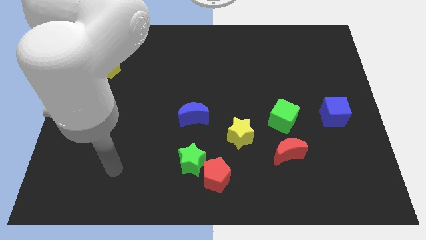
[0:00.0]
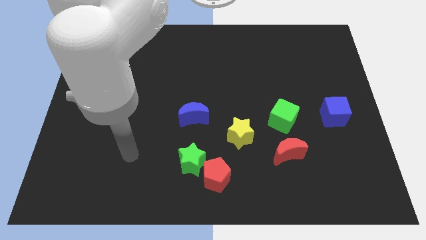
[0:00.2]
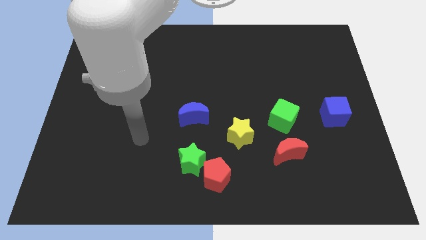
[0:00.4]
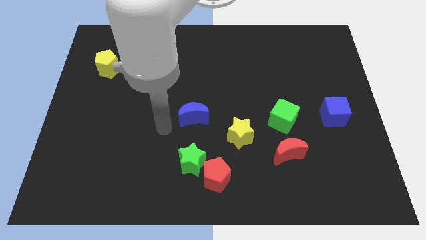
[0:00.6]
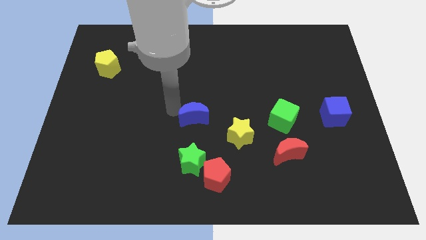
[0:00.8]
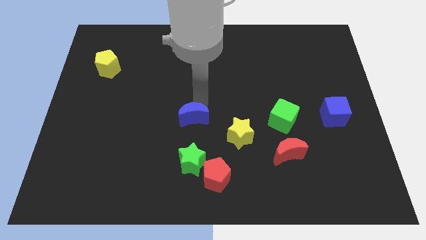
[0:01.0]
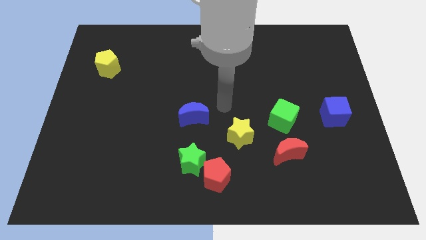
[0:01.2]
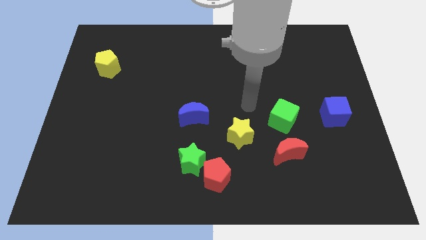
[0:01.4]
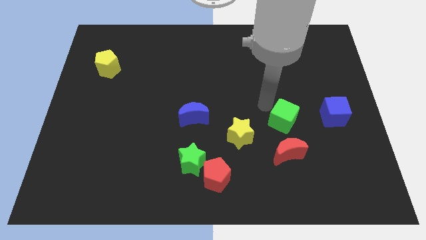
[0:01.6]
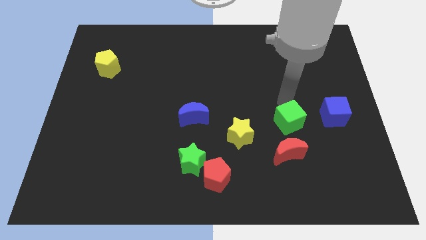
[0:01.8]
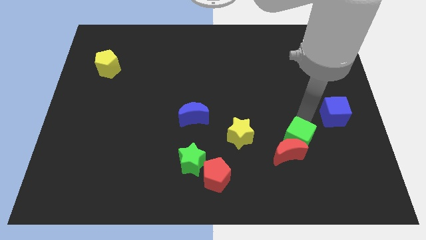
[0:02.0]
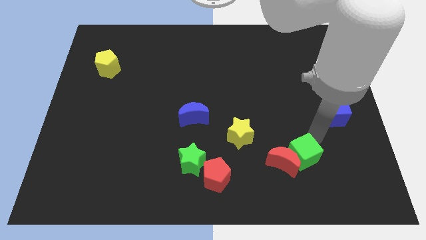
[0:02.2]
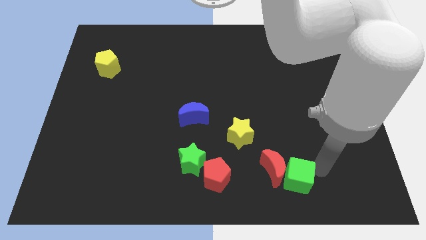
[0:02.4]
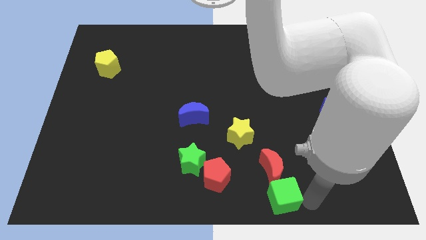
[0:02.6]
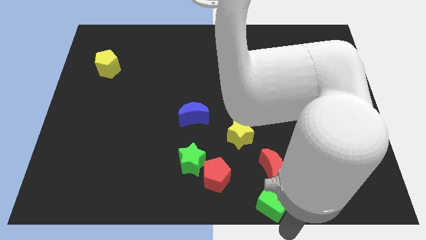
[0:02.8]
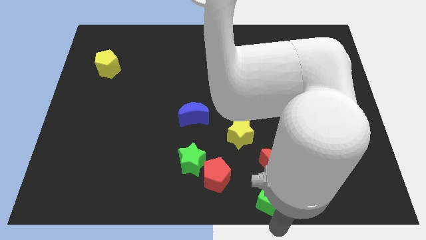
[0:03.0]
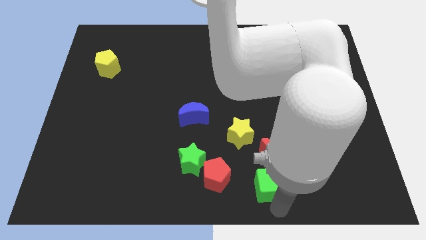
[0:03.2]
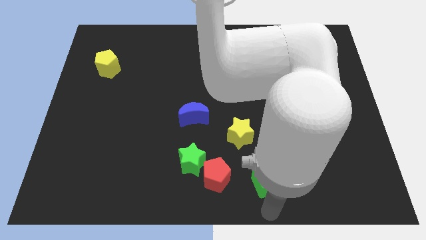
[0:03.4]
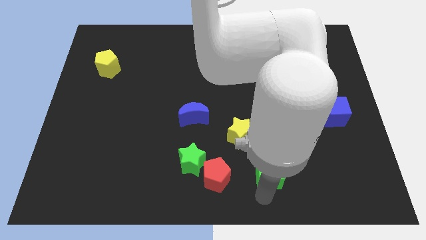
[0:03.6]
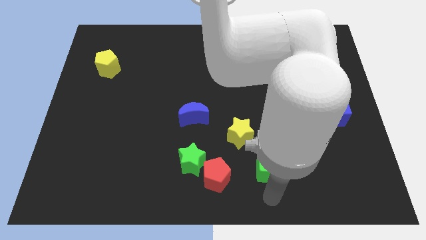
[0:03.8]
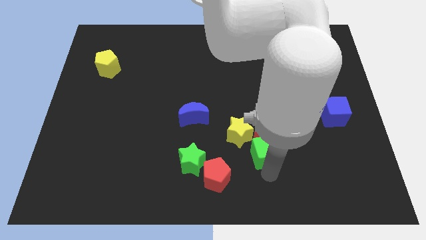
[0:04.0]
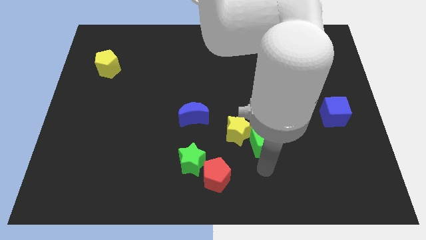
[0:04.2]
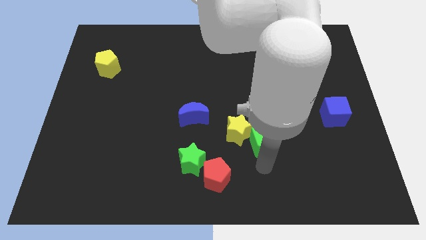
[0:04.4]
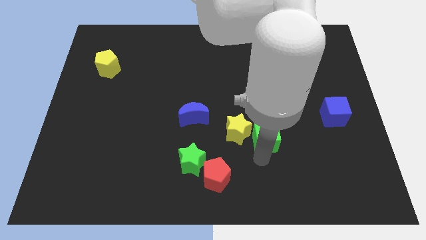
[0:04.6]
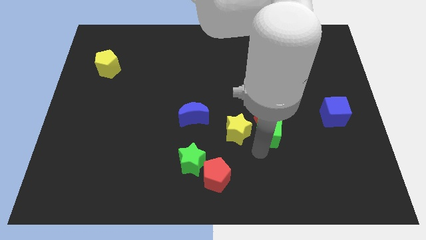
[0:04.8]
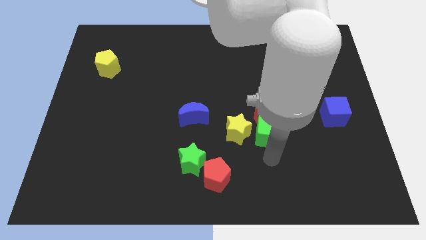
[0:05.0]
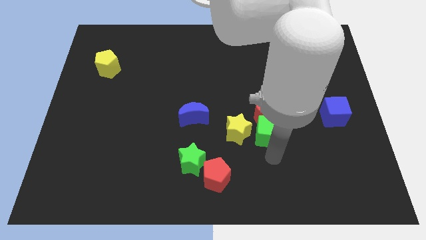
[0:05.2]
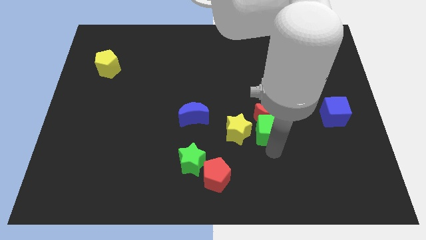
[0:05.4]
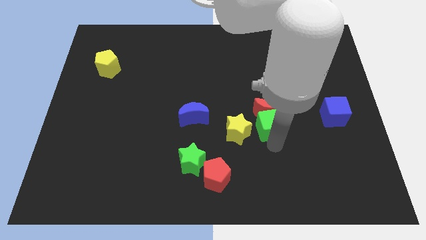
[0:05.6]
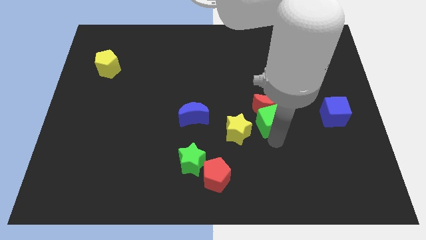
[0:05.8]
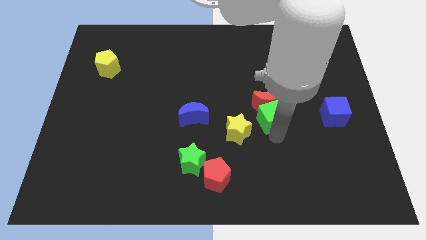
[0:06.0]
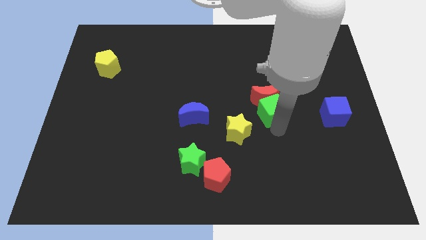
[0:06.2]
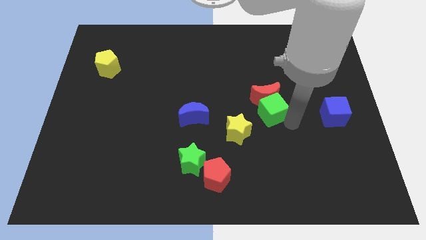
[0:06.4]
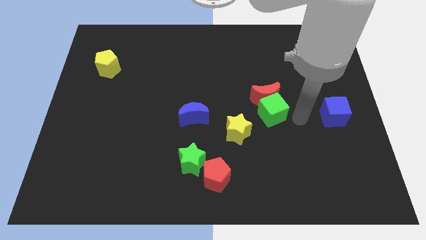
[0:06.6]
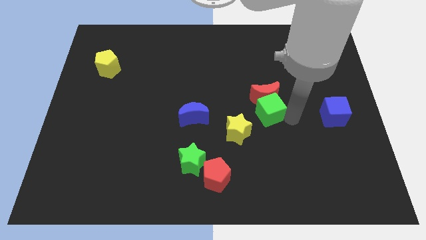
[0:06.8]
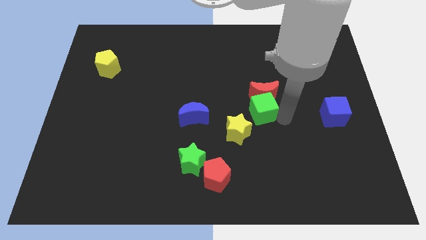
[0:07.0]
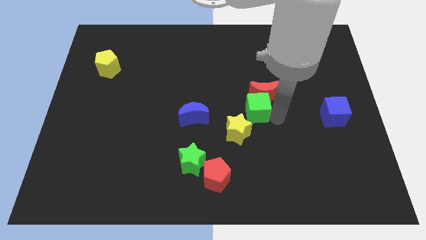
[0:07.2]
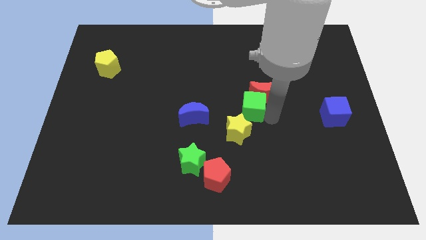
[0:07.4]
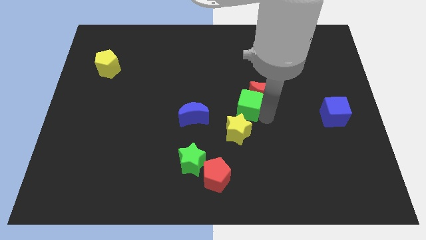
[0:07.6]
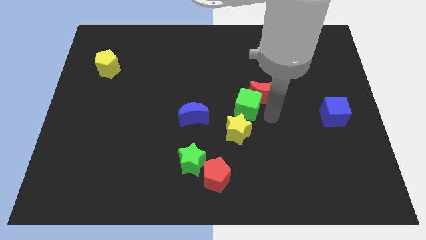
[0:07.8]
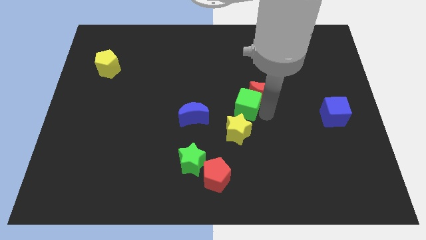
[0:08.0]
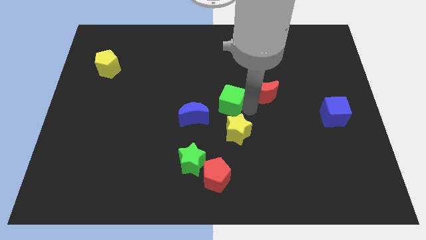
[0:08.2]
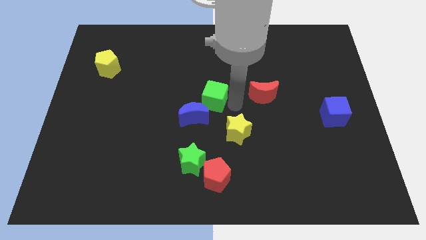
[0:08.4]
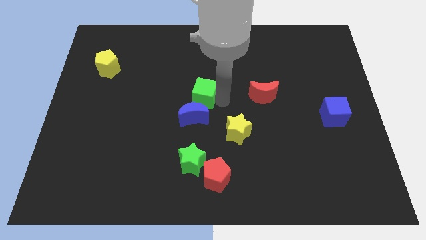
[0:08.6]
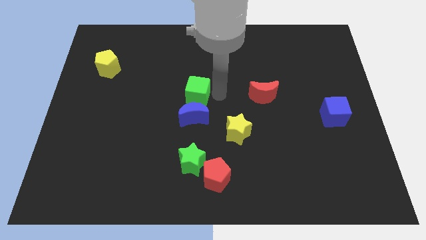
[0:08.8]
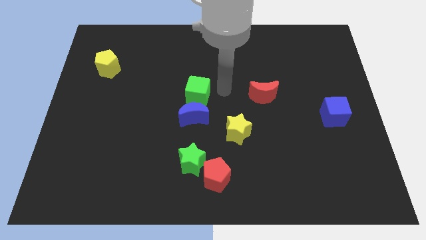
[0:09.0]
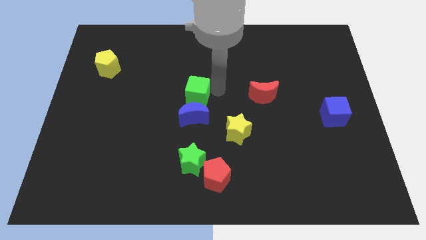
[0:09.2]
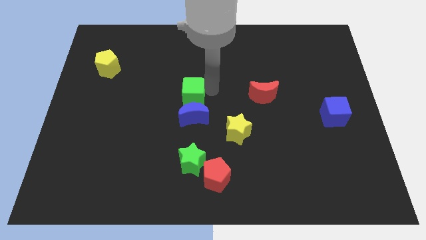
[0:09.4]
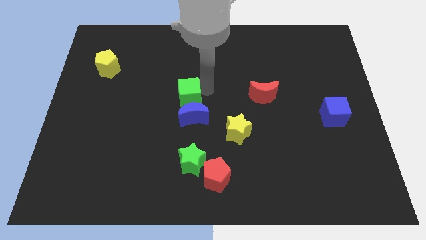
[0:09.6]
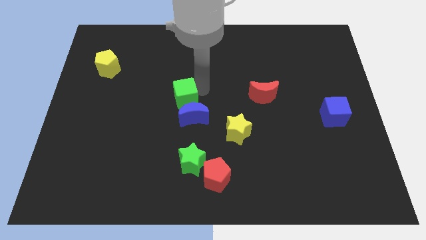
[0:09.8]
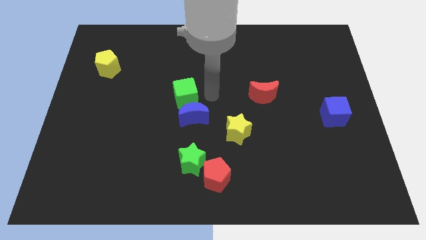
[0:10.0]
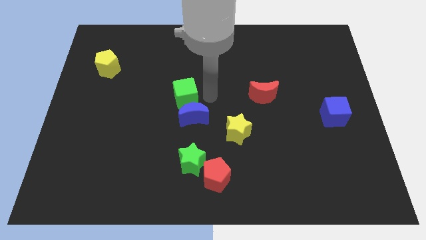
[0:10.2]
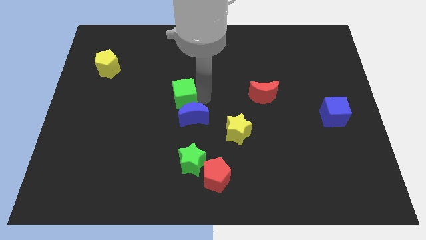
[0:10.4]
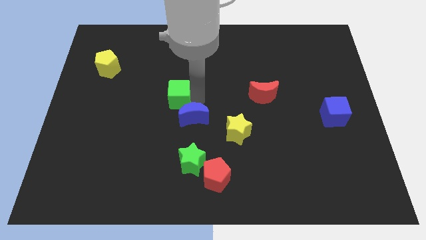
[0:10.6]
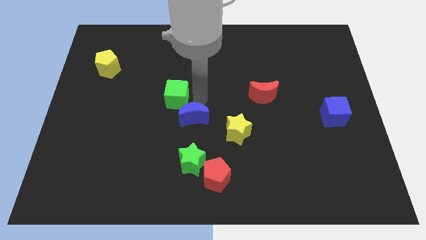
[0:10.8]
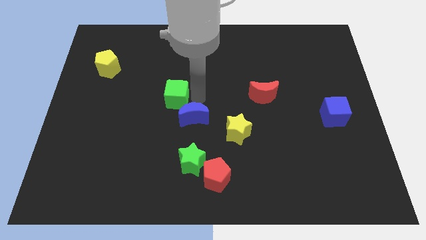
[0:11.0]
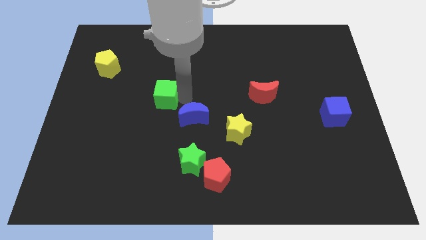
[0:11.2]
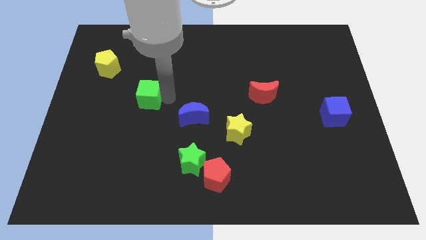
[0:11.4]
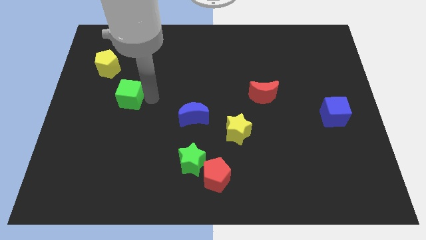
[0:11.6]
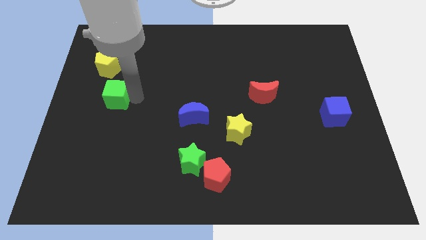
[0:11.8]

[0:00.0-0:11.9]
slide the green cube to the bottom side of the yellow pentagon

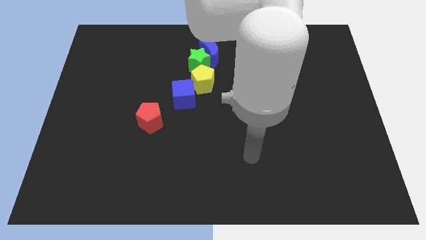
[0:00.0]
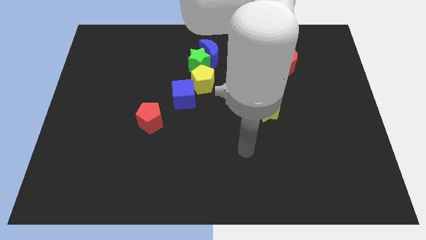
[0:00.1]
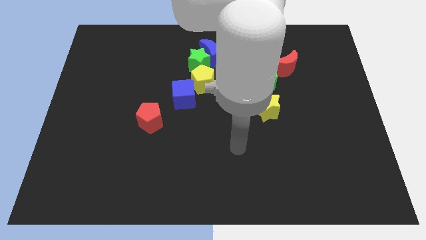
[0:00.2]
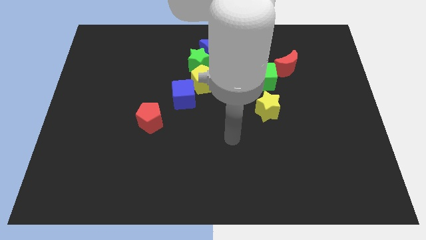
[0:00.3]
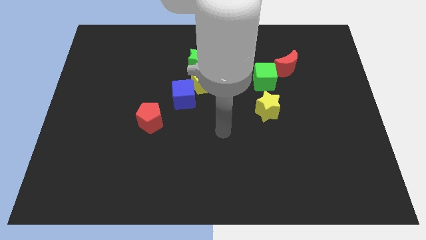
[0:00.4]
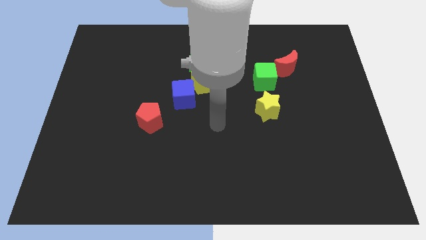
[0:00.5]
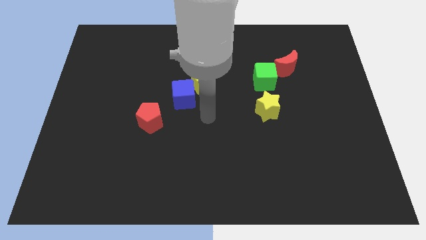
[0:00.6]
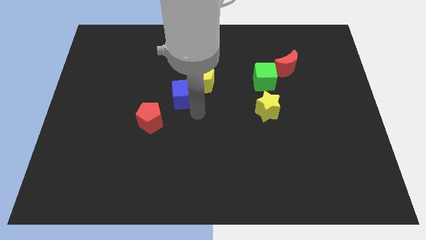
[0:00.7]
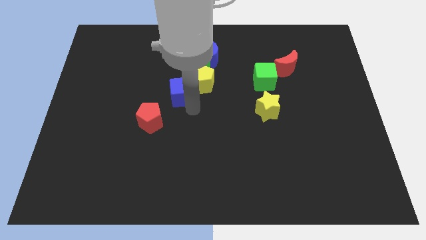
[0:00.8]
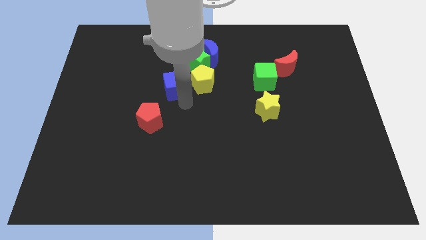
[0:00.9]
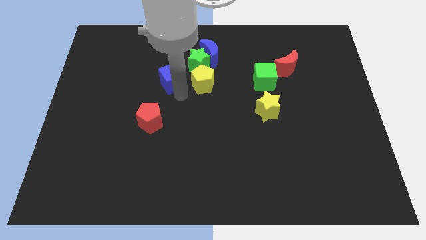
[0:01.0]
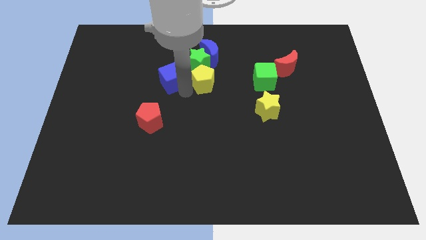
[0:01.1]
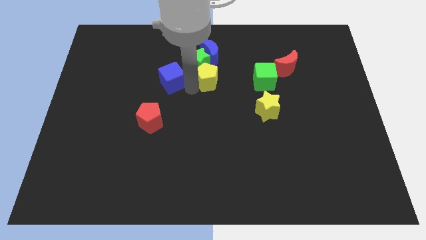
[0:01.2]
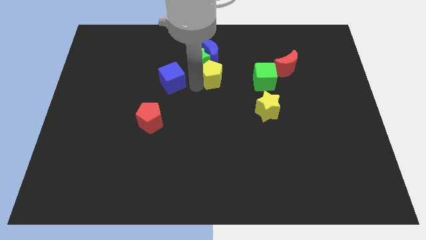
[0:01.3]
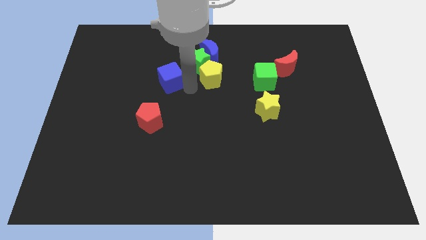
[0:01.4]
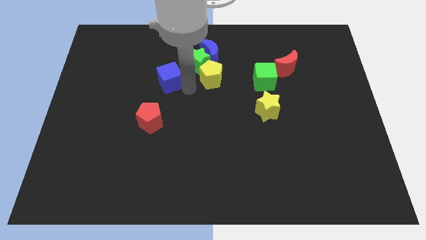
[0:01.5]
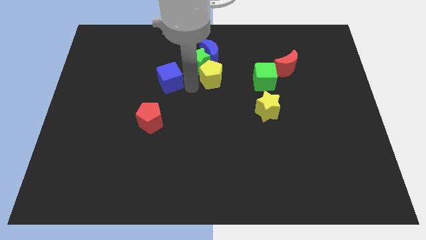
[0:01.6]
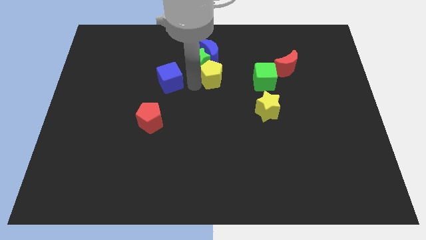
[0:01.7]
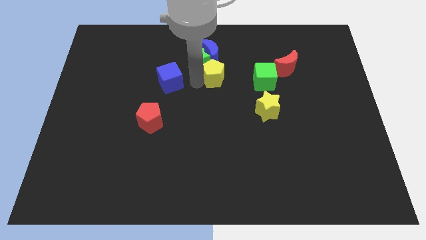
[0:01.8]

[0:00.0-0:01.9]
move the yellow pentagon to the right of the green star
